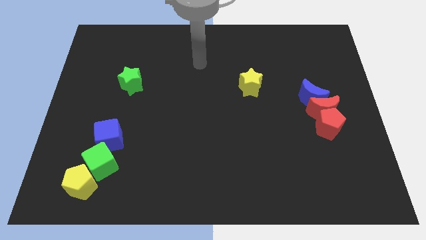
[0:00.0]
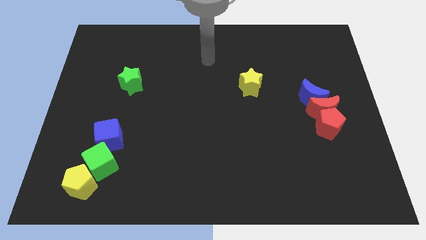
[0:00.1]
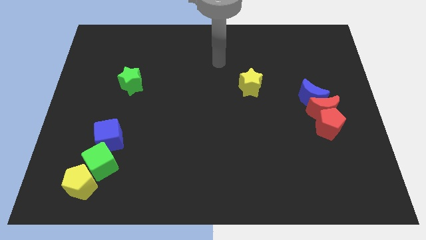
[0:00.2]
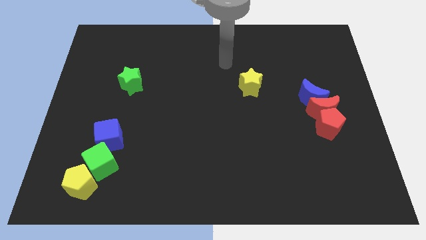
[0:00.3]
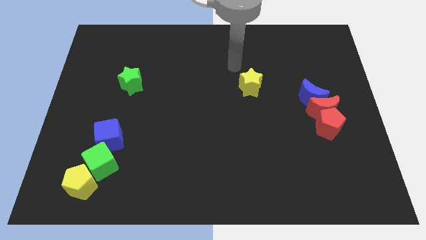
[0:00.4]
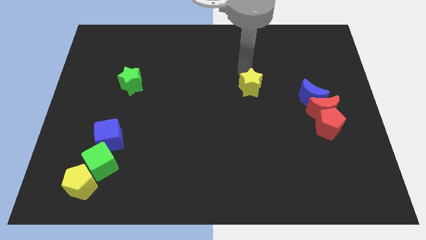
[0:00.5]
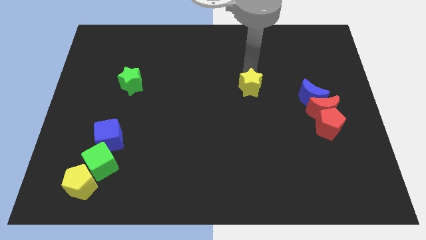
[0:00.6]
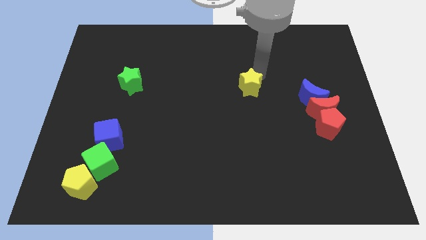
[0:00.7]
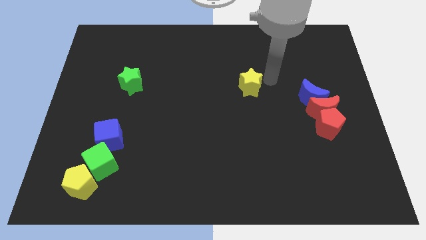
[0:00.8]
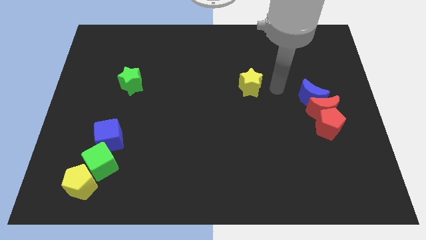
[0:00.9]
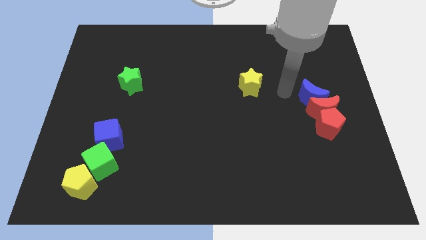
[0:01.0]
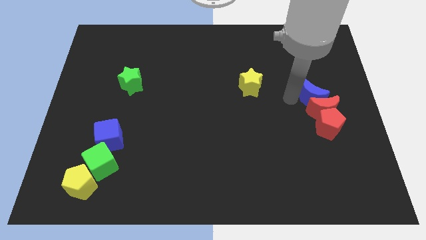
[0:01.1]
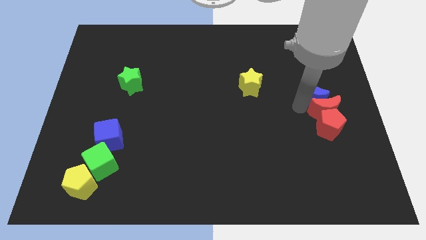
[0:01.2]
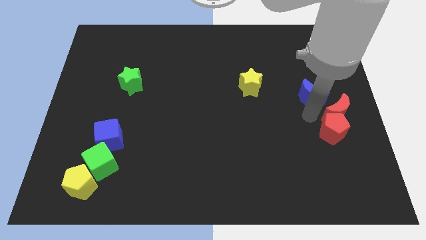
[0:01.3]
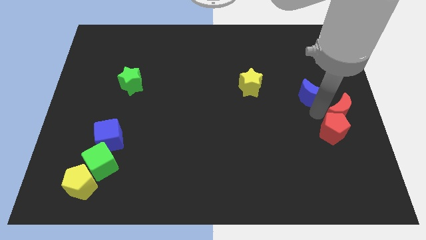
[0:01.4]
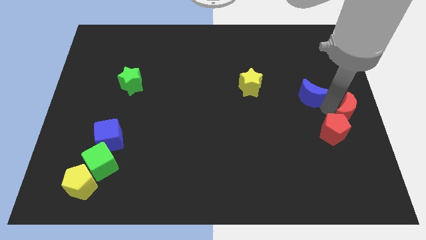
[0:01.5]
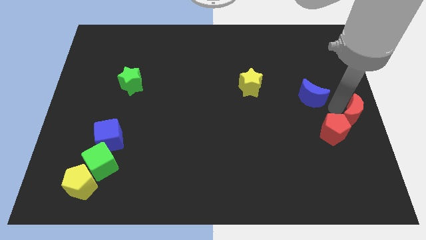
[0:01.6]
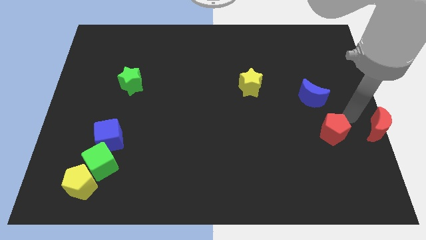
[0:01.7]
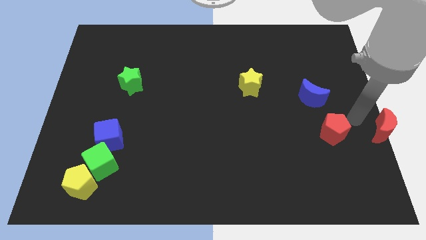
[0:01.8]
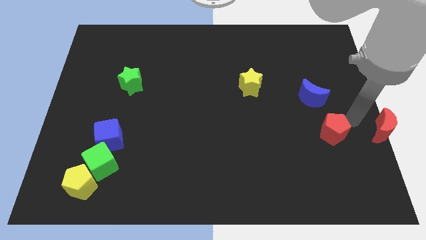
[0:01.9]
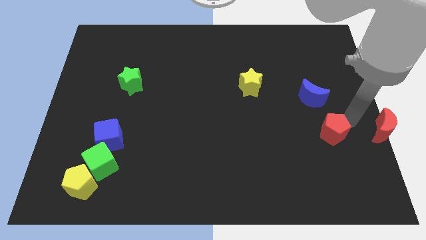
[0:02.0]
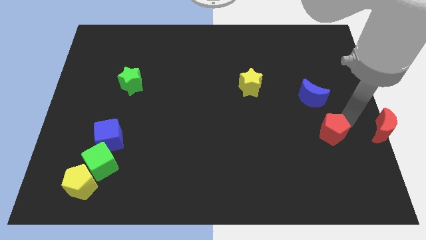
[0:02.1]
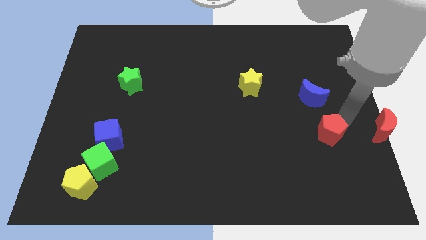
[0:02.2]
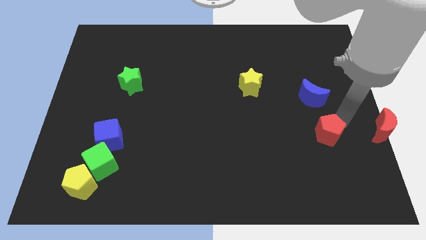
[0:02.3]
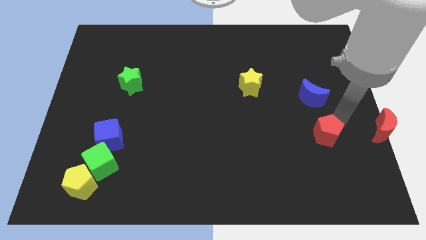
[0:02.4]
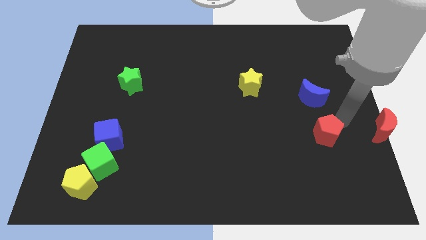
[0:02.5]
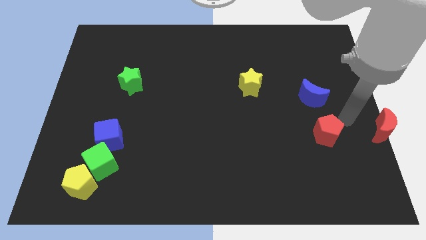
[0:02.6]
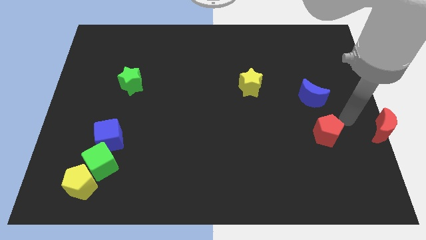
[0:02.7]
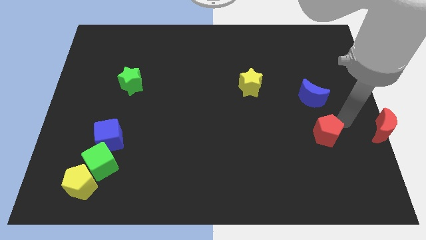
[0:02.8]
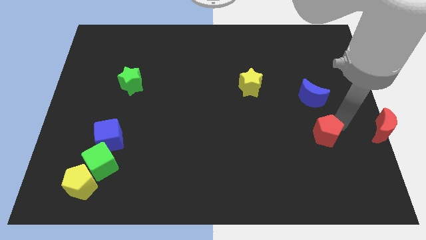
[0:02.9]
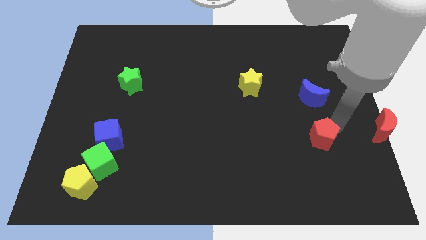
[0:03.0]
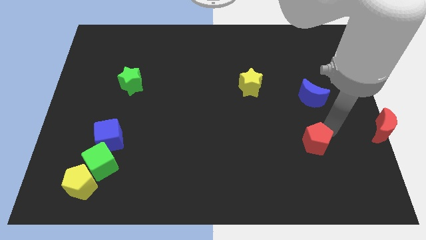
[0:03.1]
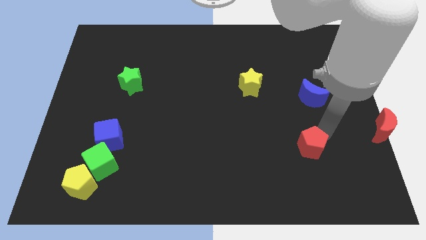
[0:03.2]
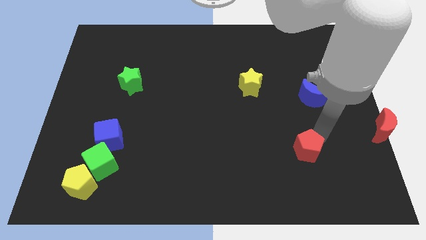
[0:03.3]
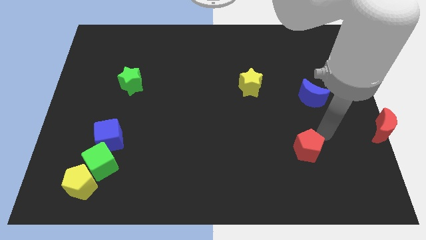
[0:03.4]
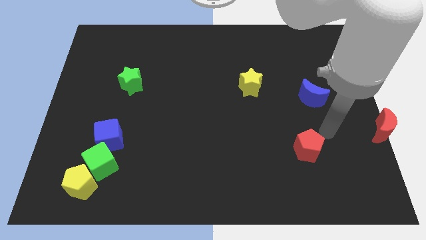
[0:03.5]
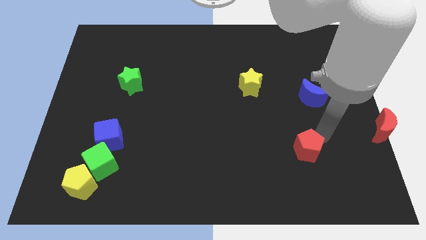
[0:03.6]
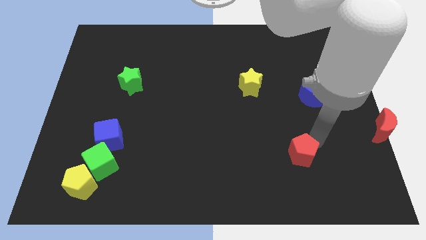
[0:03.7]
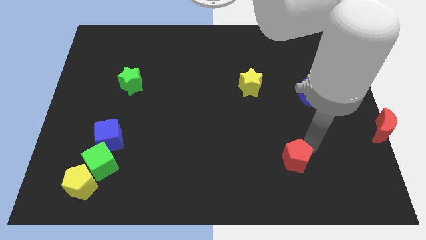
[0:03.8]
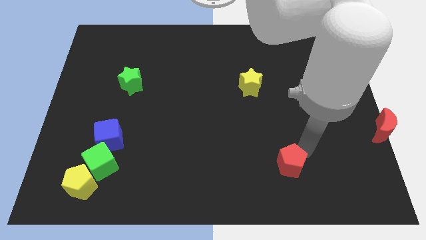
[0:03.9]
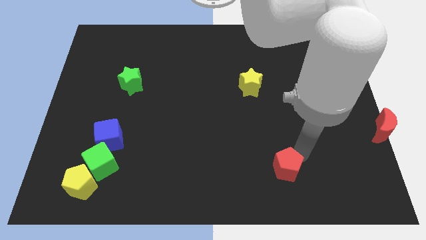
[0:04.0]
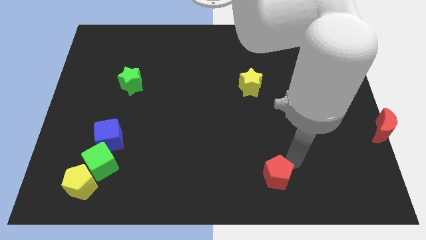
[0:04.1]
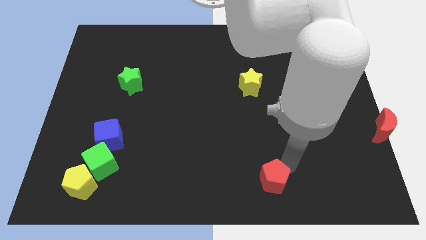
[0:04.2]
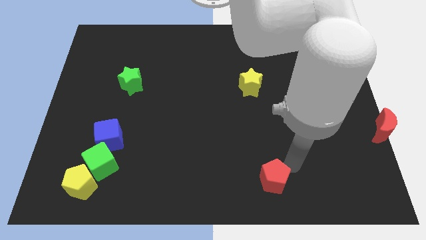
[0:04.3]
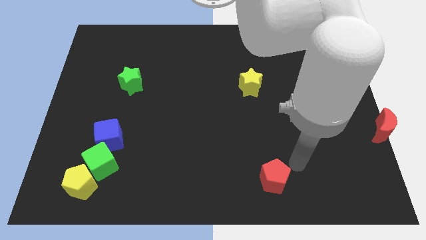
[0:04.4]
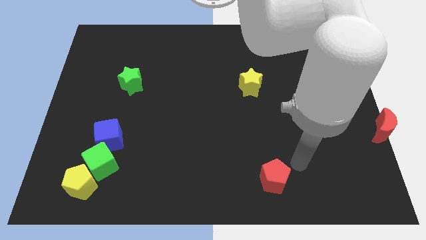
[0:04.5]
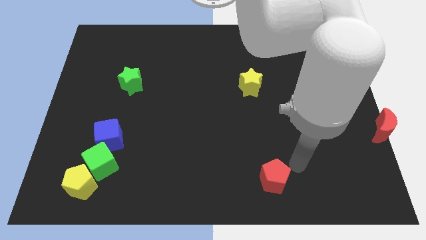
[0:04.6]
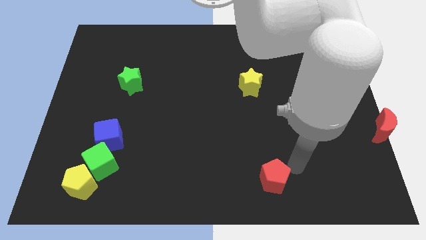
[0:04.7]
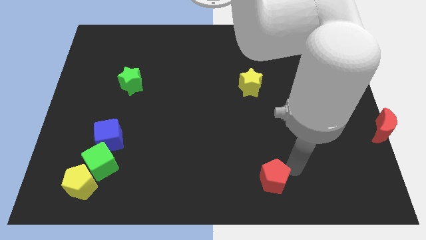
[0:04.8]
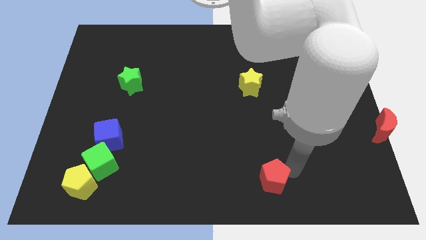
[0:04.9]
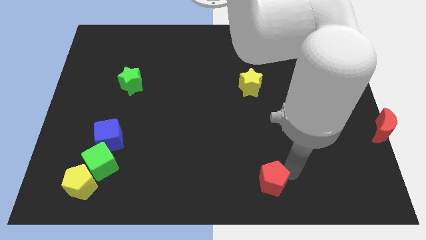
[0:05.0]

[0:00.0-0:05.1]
slide the red pentagon to the bottom side
